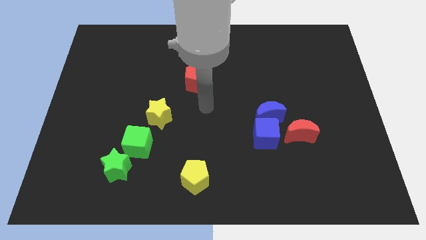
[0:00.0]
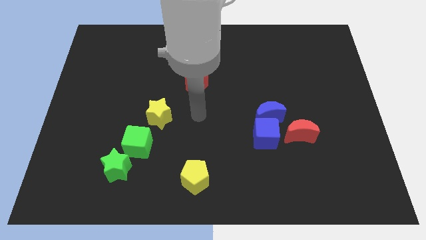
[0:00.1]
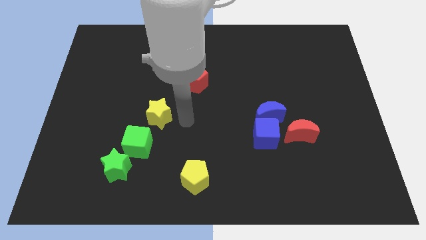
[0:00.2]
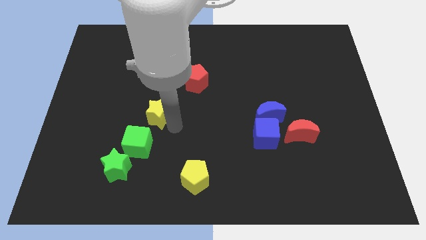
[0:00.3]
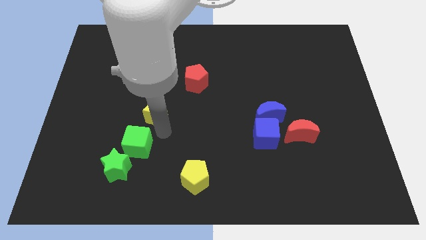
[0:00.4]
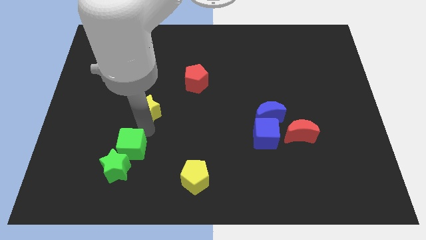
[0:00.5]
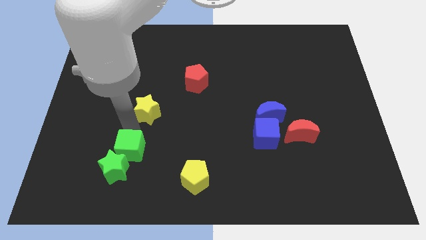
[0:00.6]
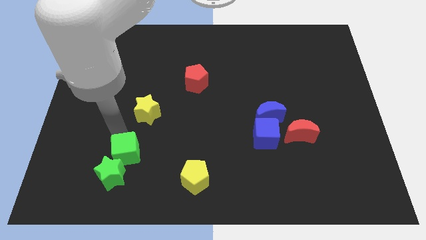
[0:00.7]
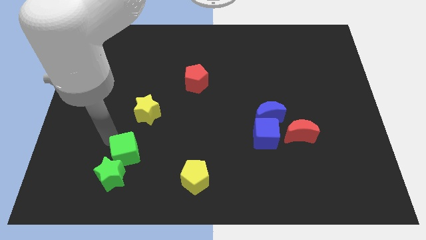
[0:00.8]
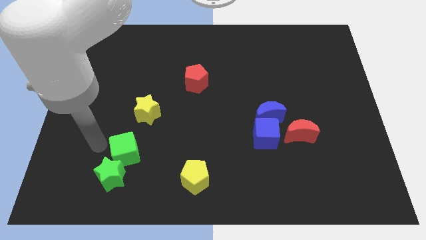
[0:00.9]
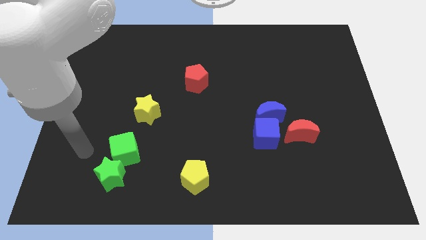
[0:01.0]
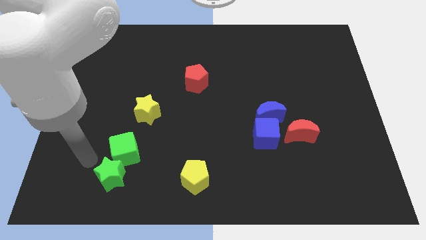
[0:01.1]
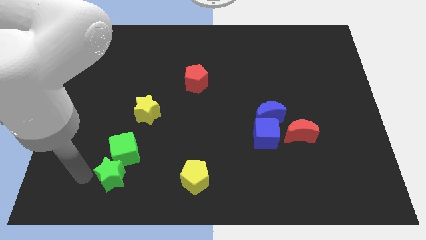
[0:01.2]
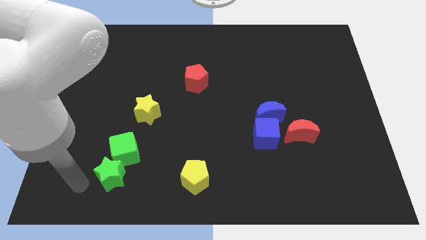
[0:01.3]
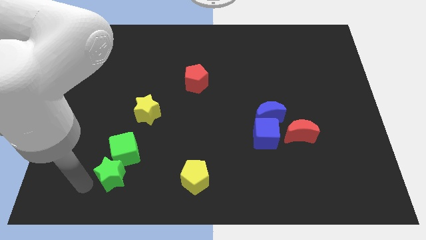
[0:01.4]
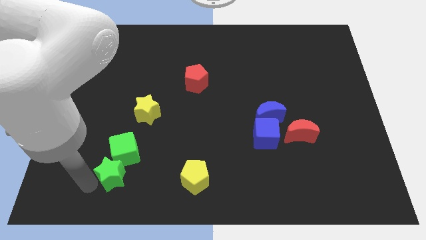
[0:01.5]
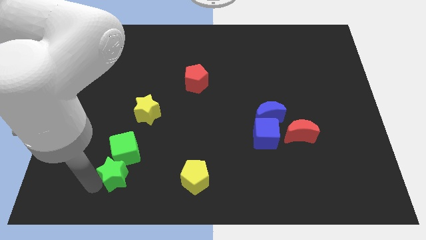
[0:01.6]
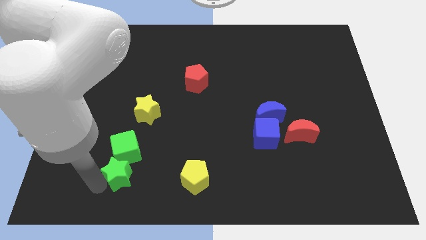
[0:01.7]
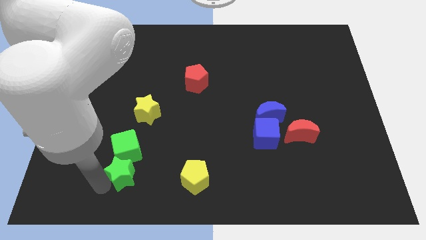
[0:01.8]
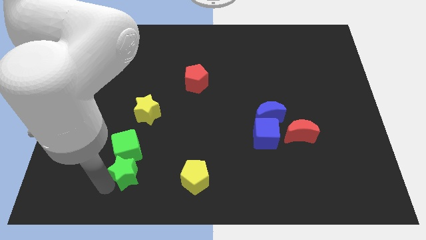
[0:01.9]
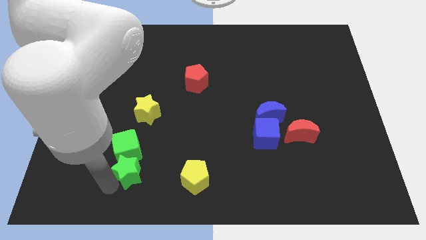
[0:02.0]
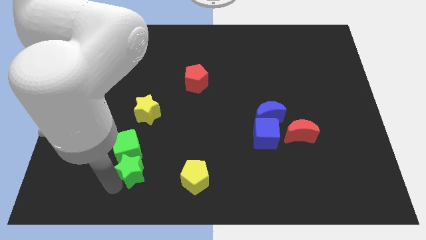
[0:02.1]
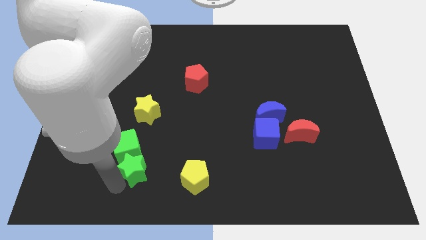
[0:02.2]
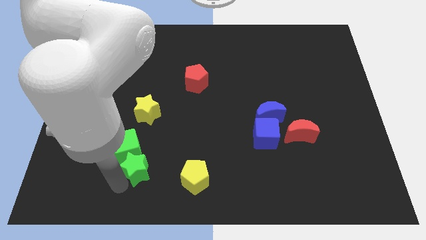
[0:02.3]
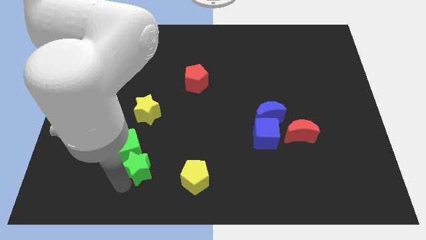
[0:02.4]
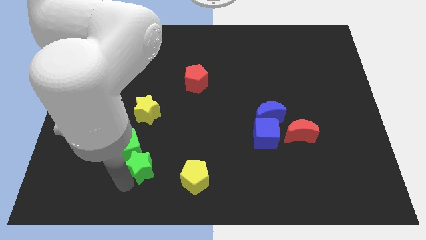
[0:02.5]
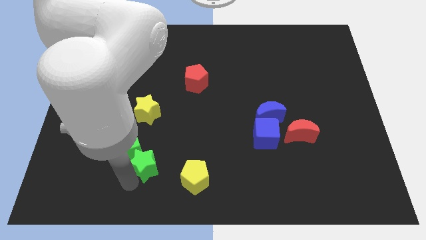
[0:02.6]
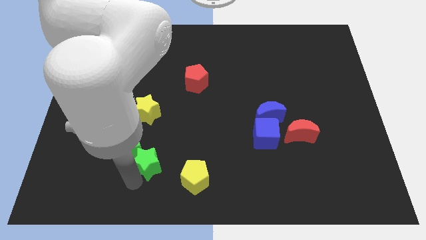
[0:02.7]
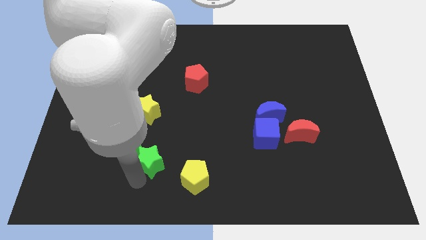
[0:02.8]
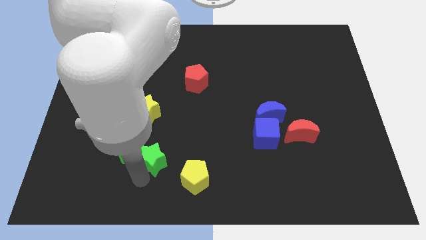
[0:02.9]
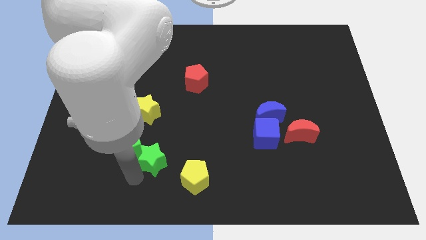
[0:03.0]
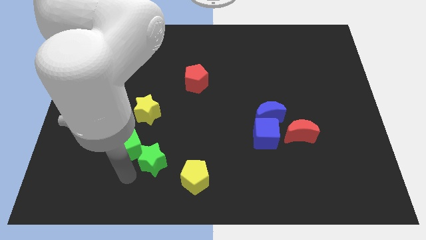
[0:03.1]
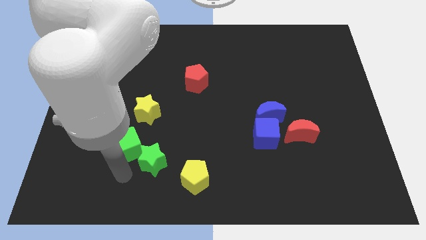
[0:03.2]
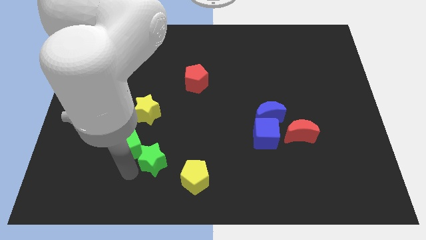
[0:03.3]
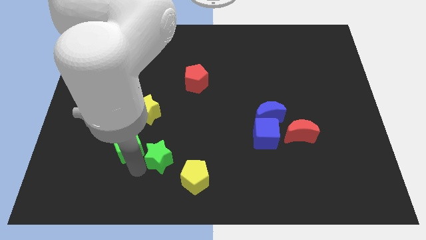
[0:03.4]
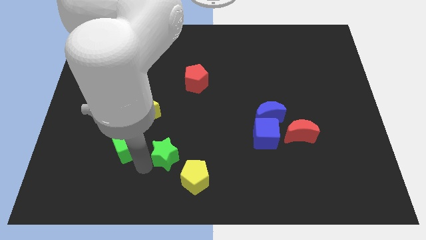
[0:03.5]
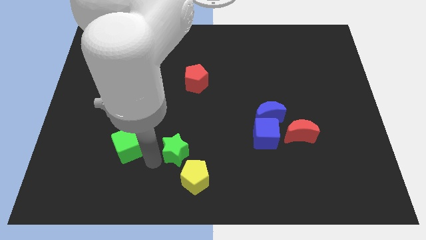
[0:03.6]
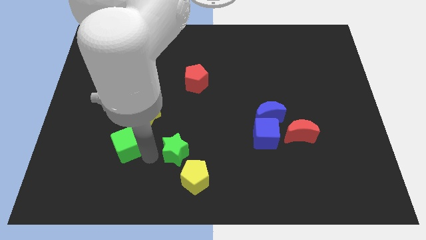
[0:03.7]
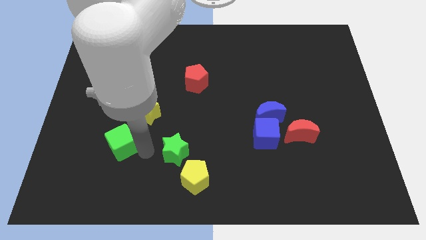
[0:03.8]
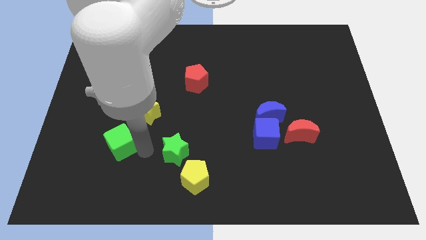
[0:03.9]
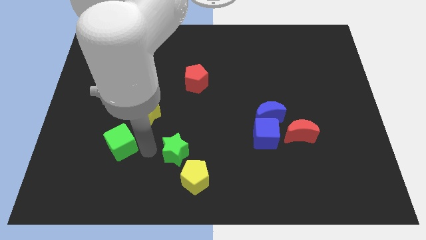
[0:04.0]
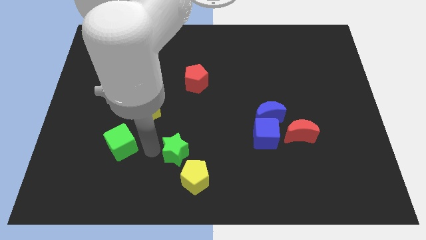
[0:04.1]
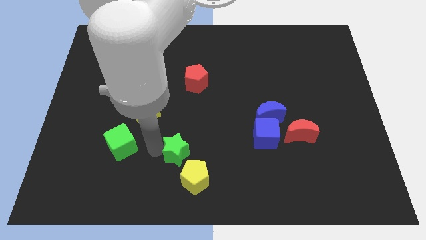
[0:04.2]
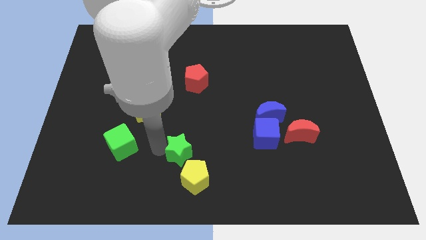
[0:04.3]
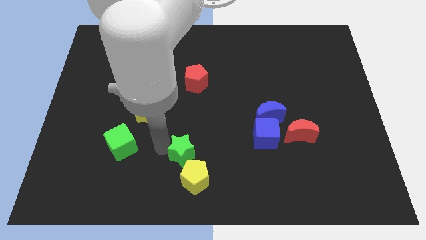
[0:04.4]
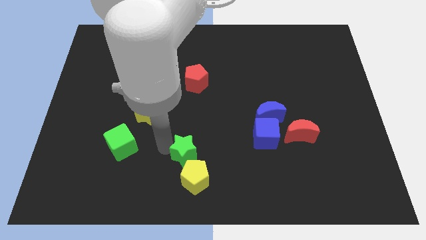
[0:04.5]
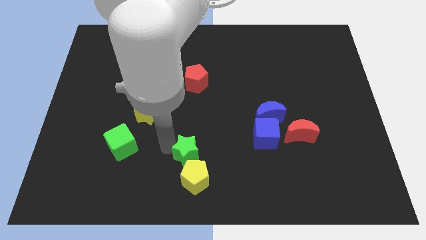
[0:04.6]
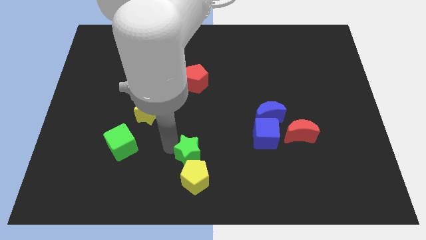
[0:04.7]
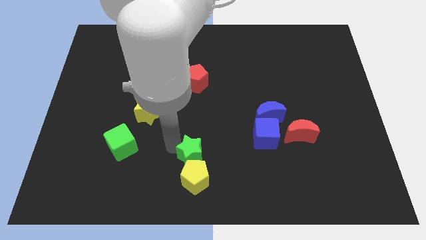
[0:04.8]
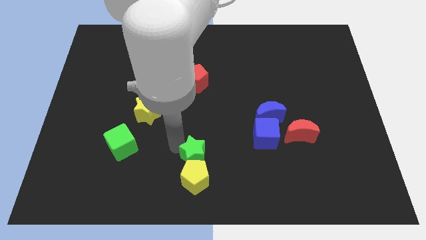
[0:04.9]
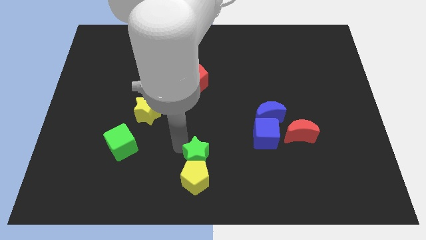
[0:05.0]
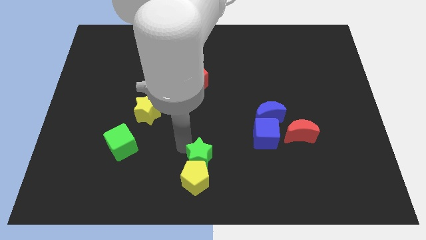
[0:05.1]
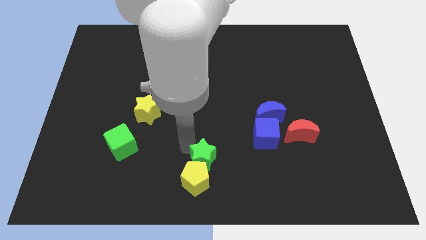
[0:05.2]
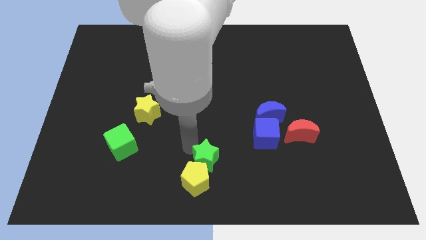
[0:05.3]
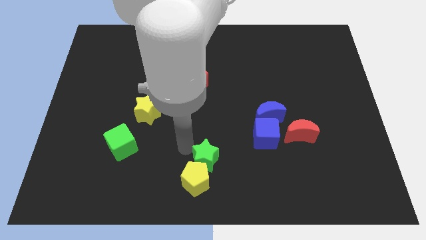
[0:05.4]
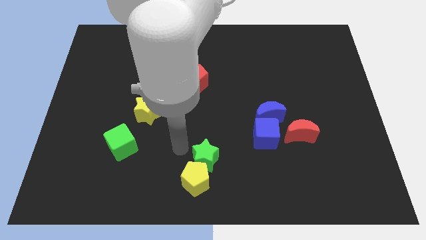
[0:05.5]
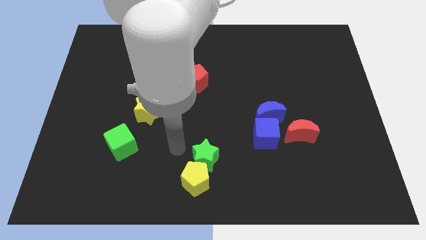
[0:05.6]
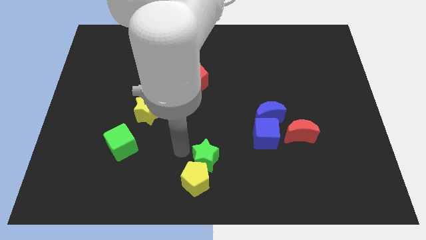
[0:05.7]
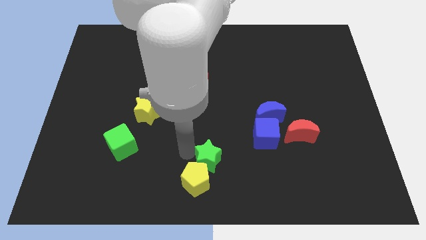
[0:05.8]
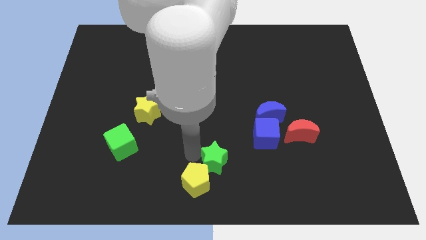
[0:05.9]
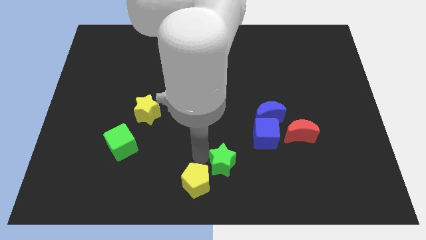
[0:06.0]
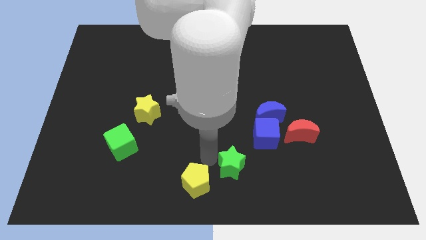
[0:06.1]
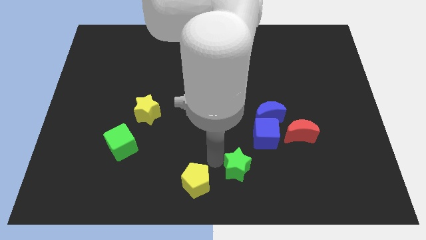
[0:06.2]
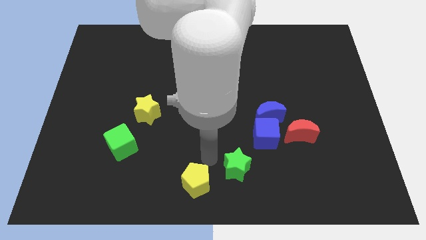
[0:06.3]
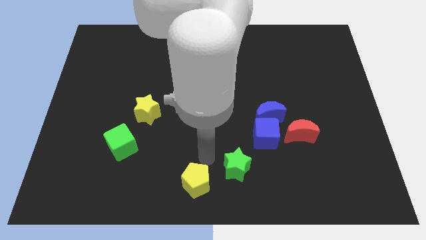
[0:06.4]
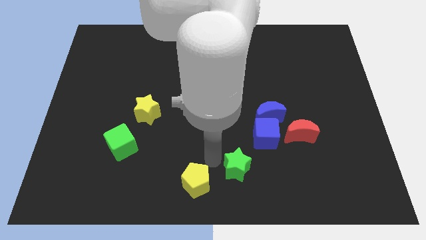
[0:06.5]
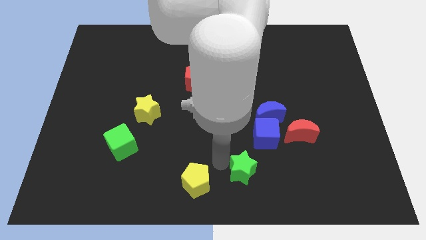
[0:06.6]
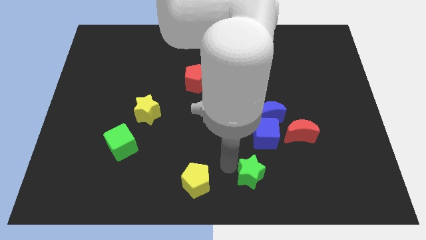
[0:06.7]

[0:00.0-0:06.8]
put the green star to the bottom of the blue cube
